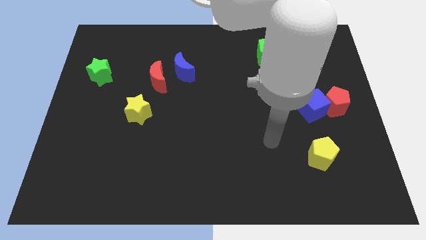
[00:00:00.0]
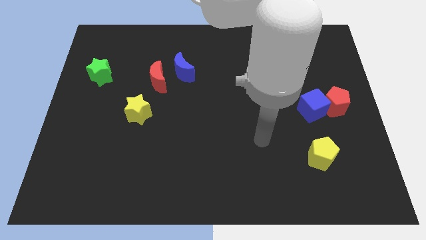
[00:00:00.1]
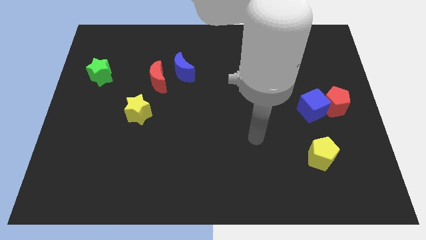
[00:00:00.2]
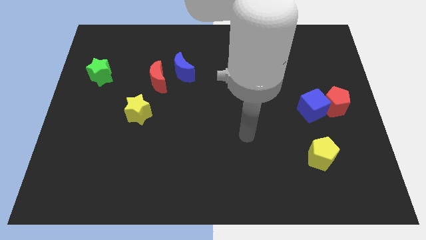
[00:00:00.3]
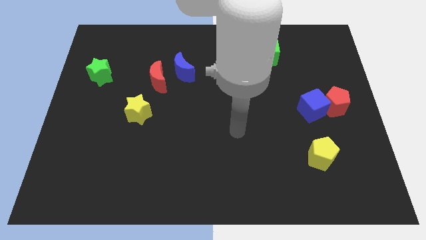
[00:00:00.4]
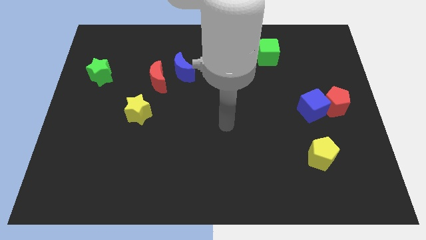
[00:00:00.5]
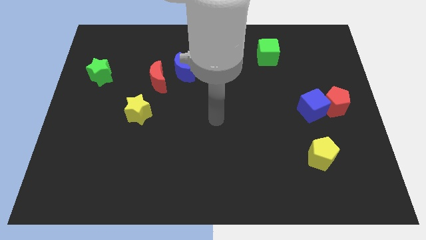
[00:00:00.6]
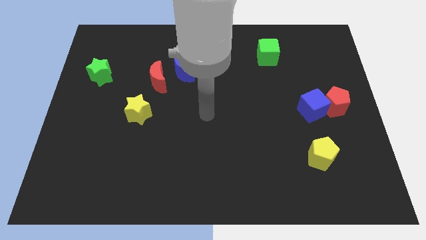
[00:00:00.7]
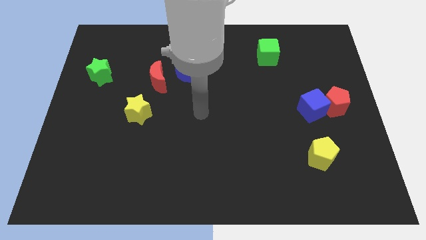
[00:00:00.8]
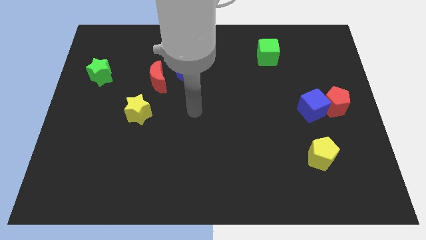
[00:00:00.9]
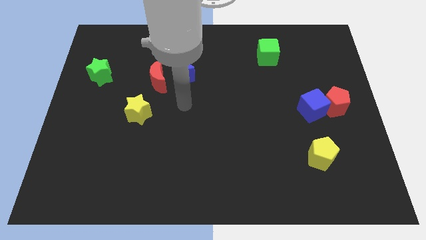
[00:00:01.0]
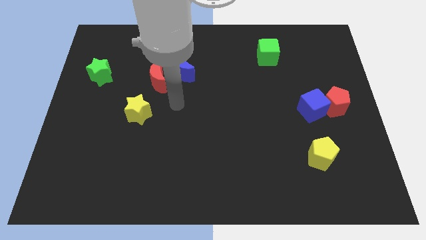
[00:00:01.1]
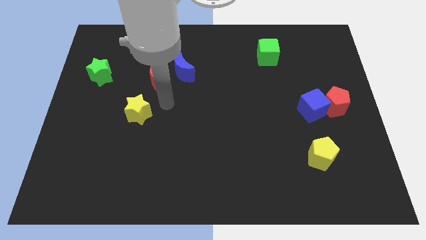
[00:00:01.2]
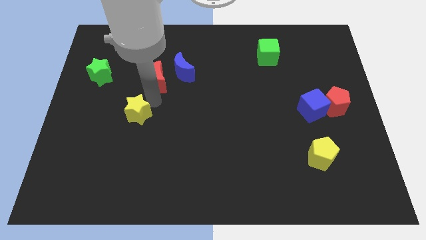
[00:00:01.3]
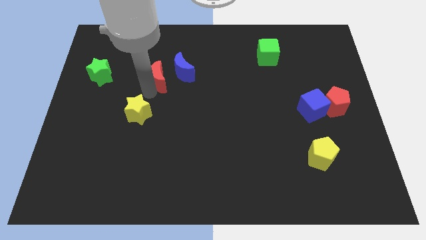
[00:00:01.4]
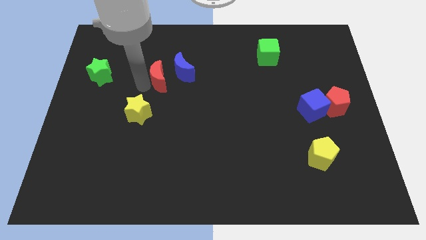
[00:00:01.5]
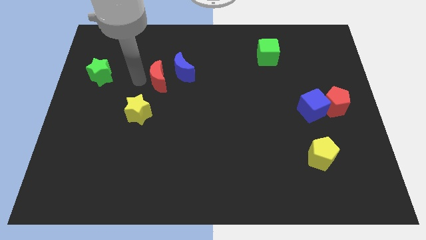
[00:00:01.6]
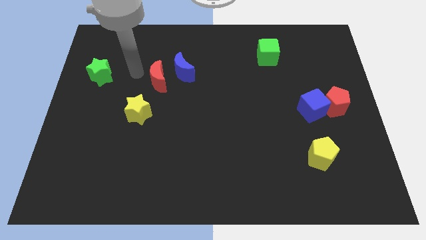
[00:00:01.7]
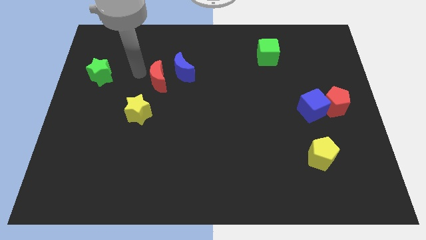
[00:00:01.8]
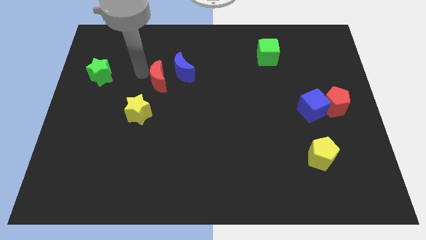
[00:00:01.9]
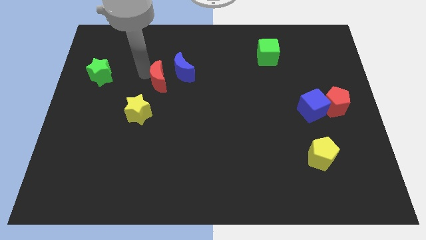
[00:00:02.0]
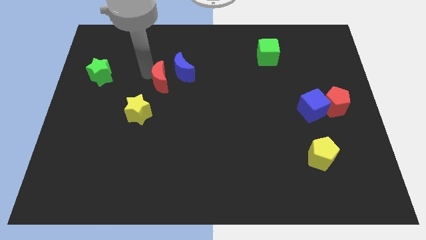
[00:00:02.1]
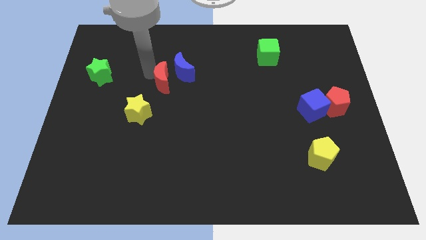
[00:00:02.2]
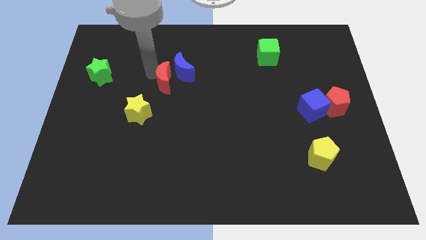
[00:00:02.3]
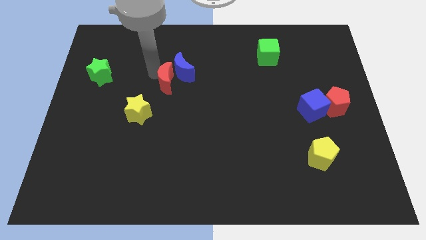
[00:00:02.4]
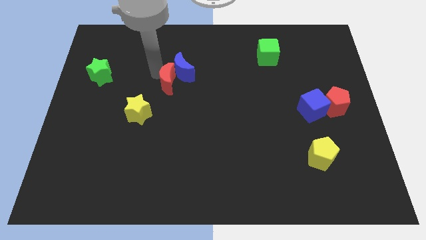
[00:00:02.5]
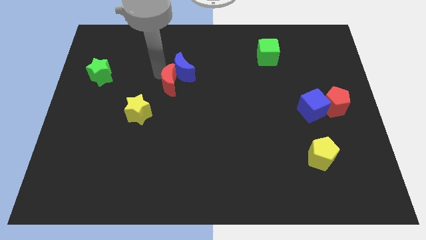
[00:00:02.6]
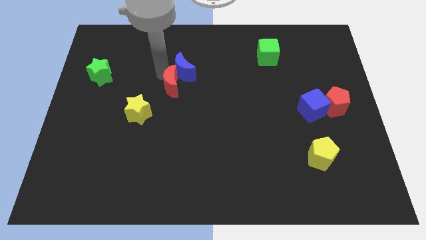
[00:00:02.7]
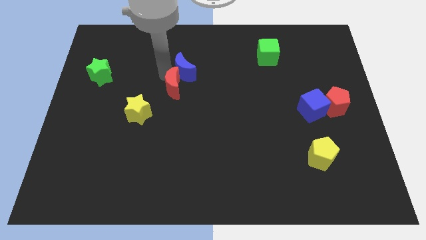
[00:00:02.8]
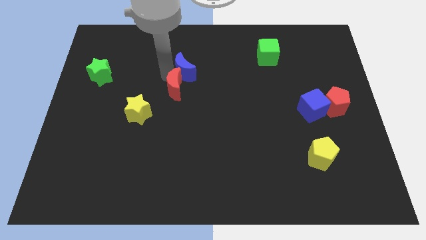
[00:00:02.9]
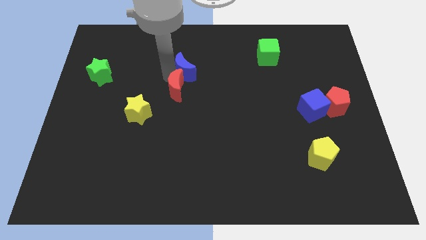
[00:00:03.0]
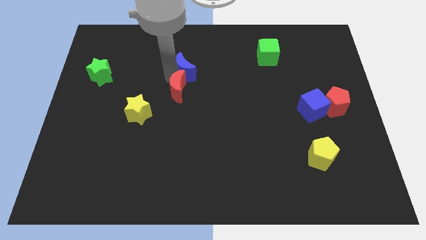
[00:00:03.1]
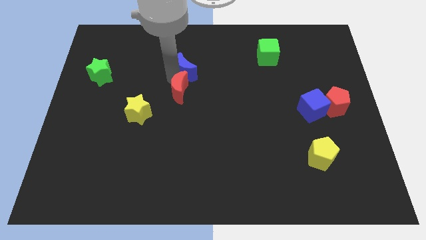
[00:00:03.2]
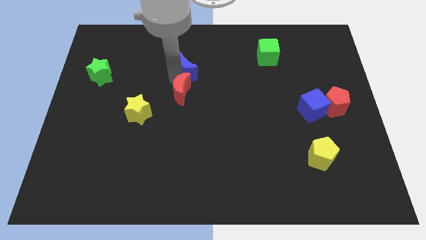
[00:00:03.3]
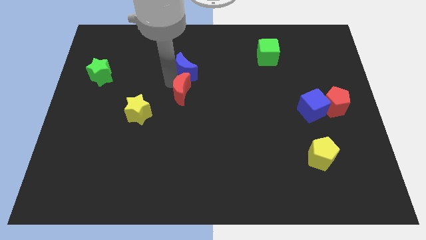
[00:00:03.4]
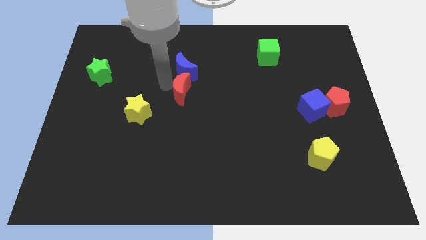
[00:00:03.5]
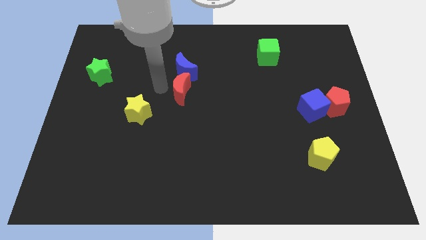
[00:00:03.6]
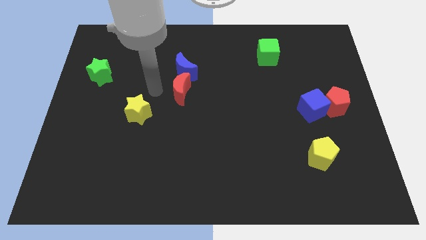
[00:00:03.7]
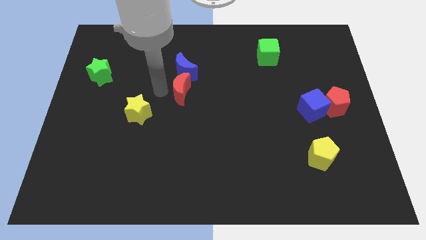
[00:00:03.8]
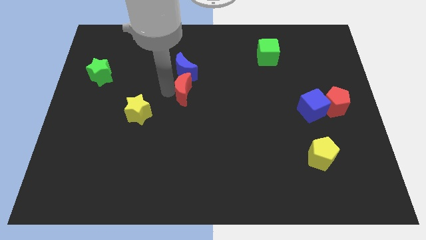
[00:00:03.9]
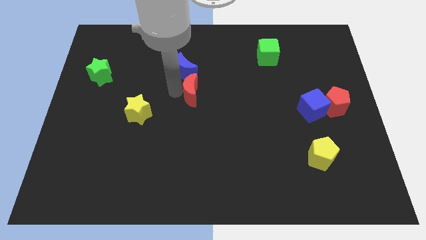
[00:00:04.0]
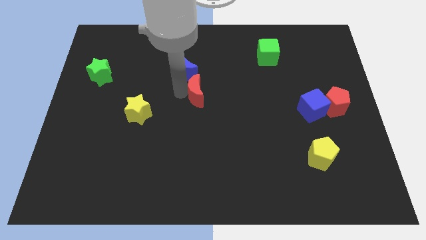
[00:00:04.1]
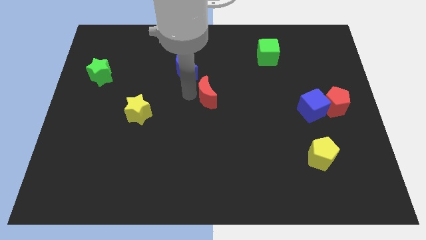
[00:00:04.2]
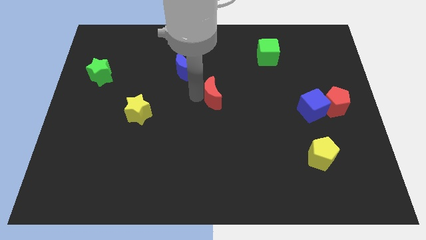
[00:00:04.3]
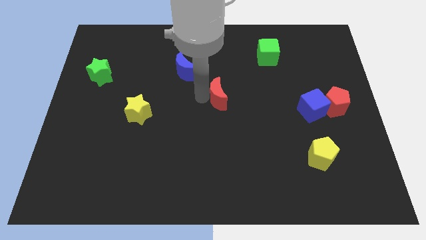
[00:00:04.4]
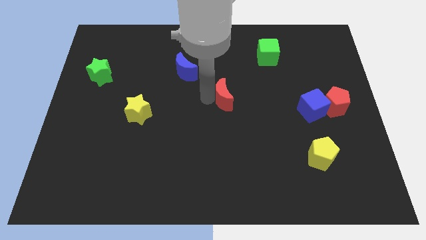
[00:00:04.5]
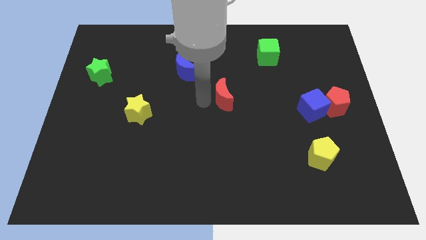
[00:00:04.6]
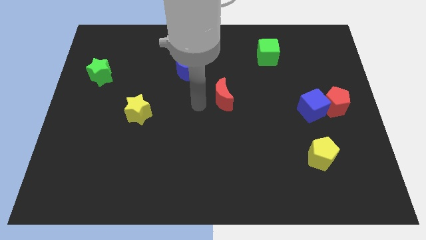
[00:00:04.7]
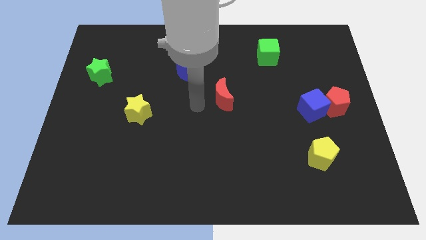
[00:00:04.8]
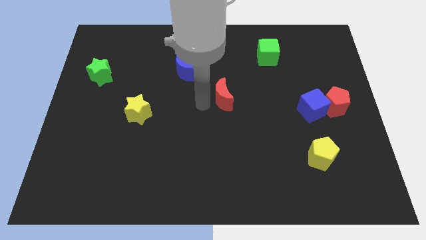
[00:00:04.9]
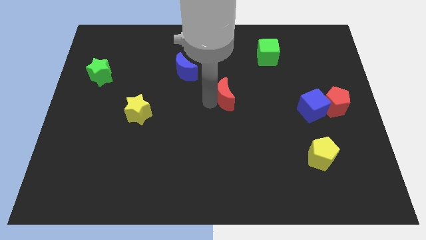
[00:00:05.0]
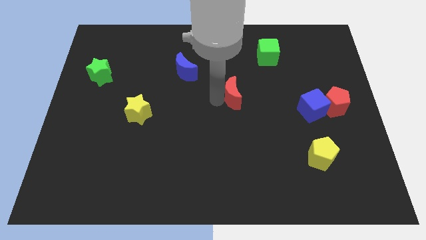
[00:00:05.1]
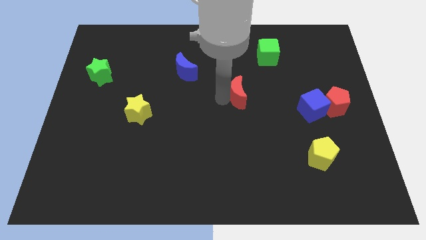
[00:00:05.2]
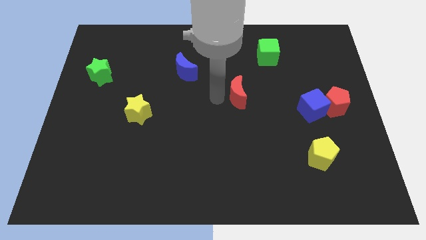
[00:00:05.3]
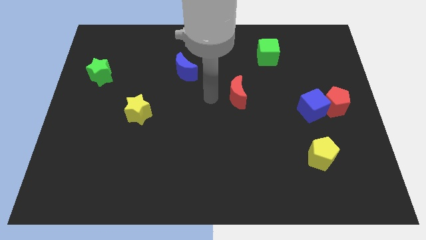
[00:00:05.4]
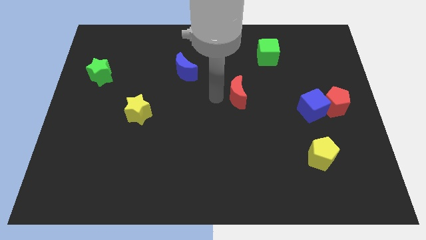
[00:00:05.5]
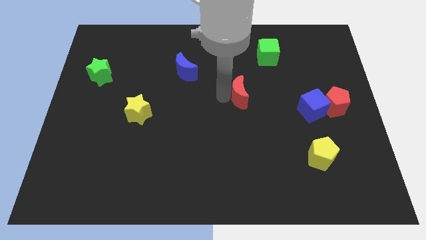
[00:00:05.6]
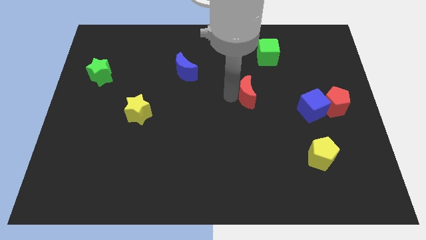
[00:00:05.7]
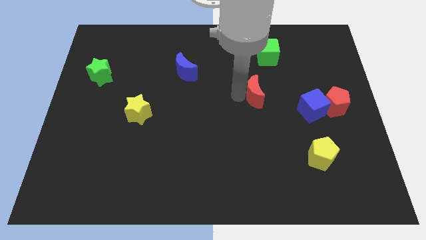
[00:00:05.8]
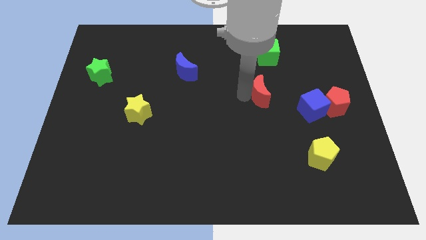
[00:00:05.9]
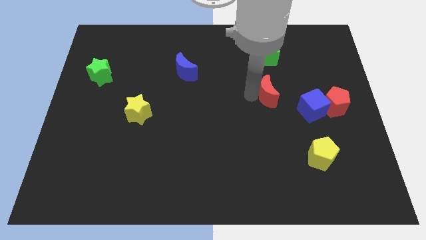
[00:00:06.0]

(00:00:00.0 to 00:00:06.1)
slide the red moon to the top left side of the blue cube
